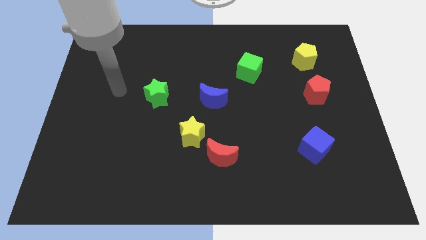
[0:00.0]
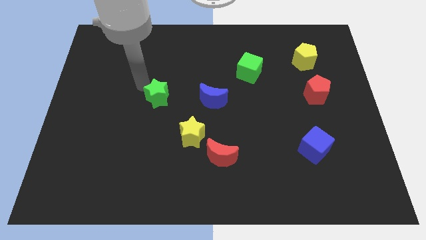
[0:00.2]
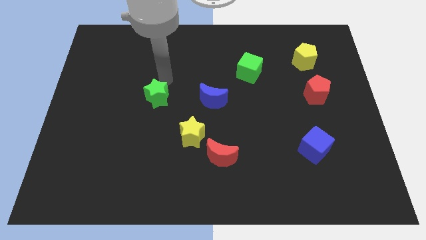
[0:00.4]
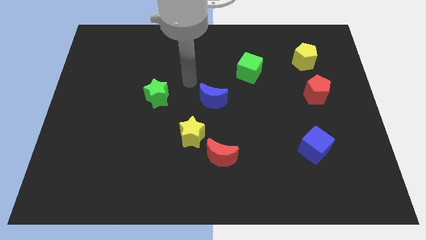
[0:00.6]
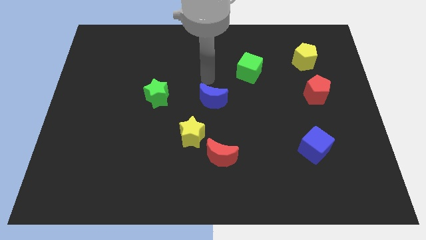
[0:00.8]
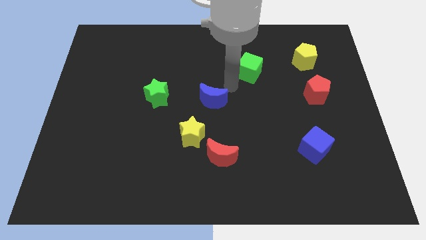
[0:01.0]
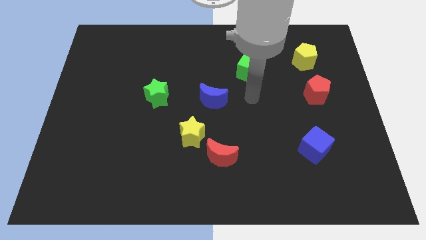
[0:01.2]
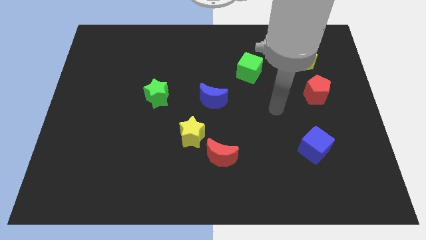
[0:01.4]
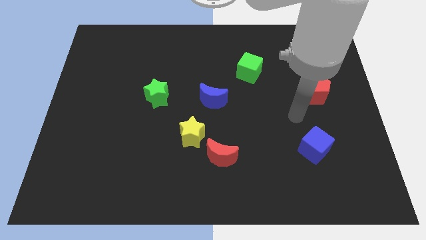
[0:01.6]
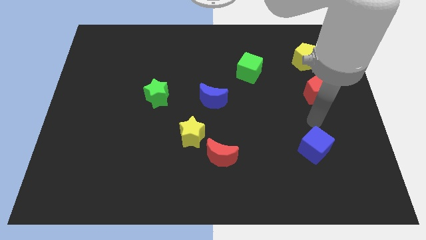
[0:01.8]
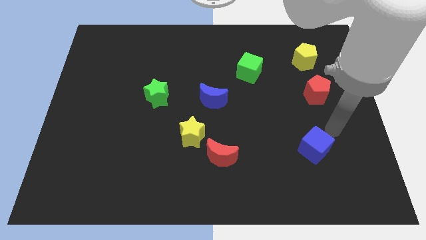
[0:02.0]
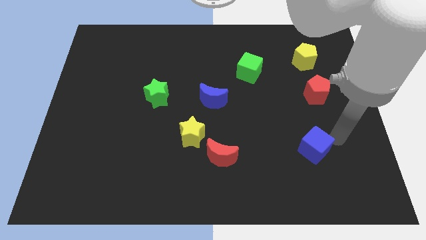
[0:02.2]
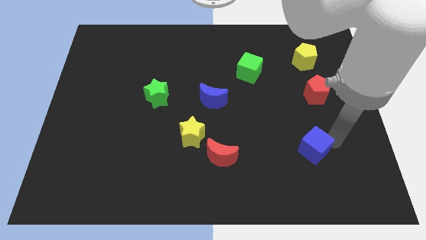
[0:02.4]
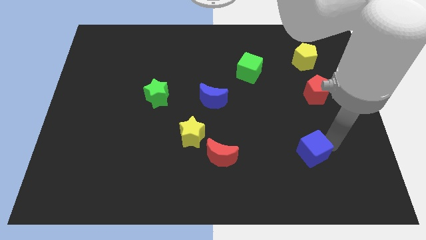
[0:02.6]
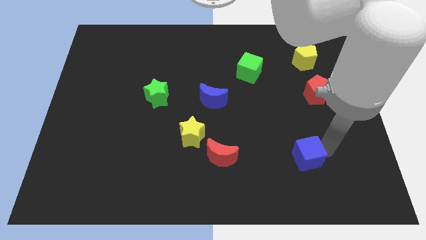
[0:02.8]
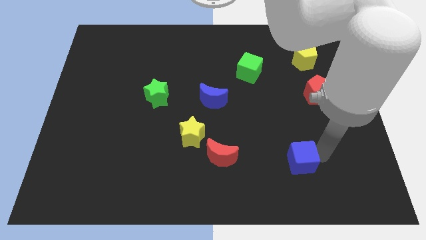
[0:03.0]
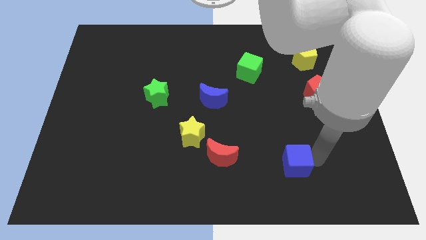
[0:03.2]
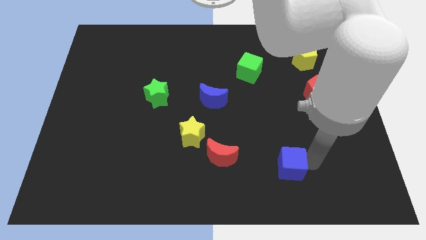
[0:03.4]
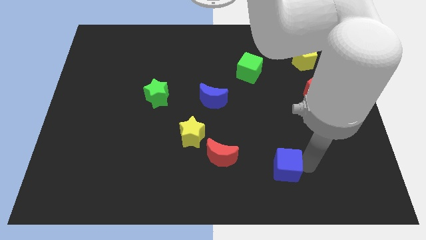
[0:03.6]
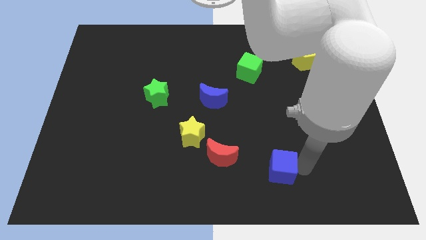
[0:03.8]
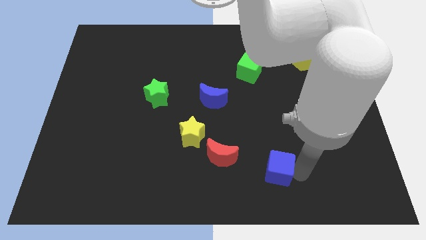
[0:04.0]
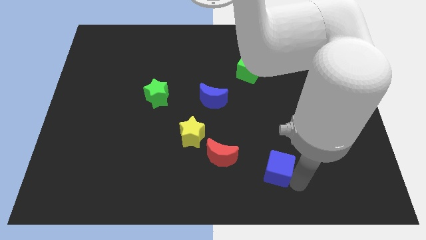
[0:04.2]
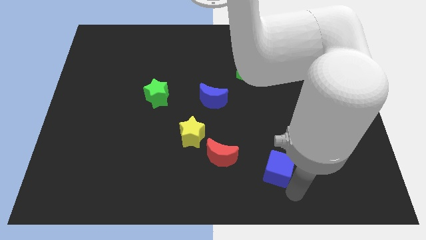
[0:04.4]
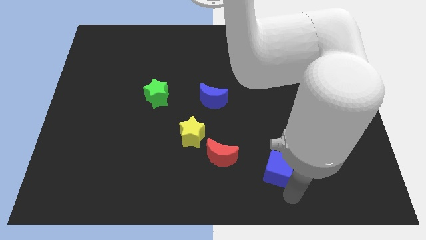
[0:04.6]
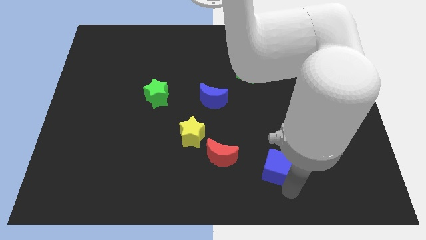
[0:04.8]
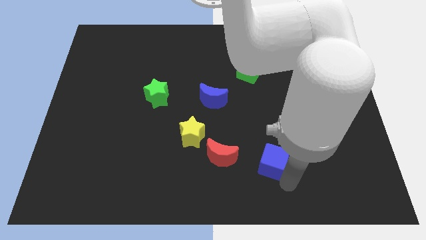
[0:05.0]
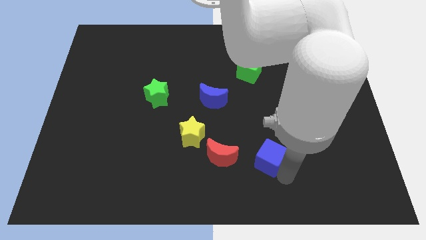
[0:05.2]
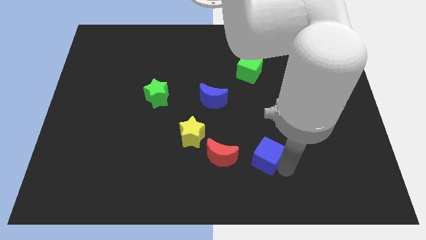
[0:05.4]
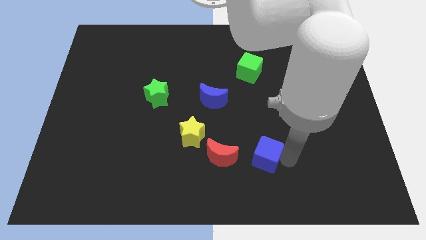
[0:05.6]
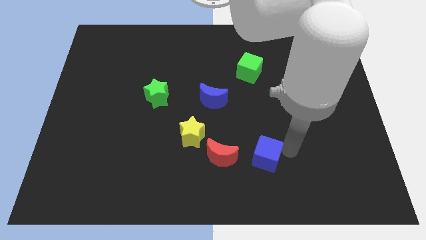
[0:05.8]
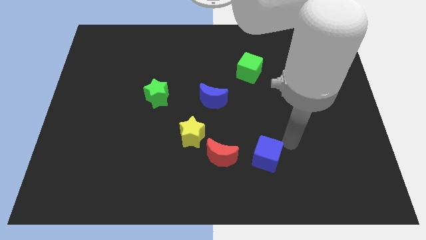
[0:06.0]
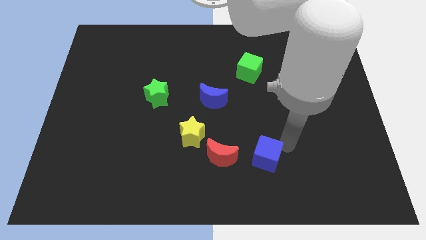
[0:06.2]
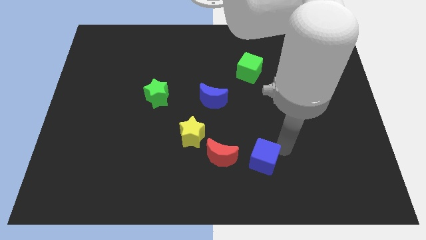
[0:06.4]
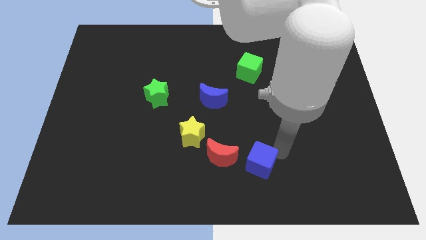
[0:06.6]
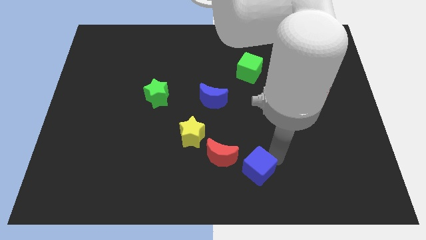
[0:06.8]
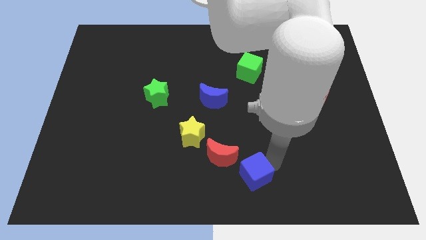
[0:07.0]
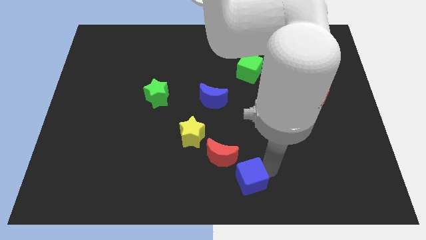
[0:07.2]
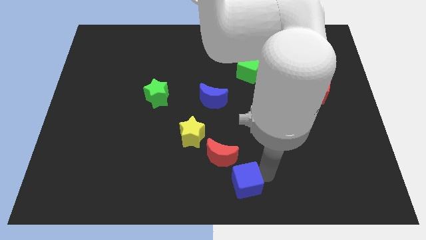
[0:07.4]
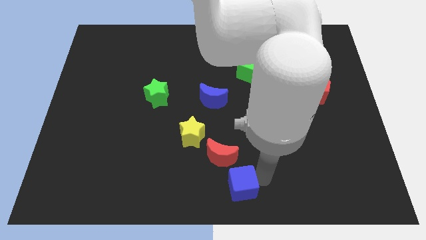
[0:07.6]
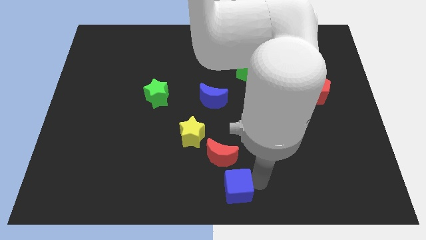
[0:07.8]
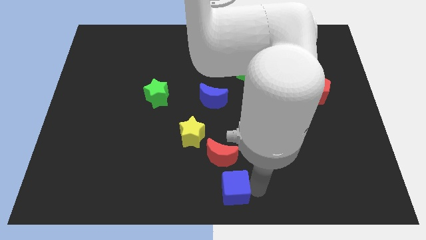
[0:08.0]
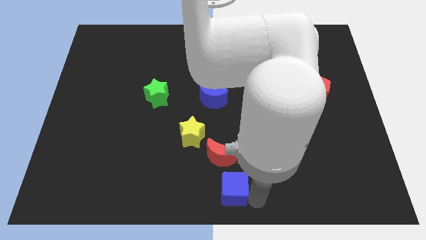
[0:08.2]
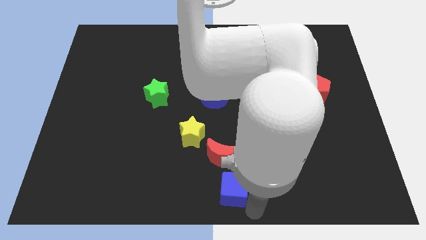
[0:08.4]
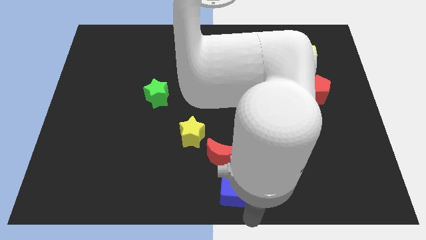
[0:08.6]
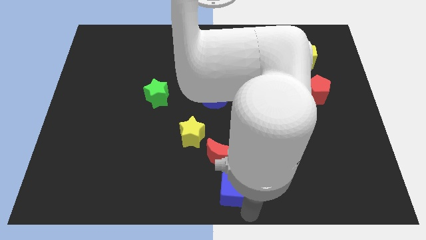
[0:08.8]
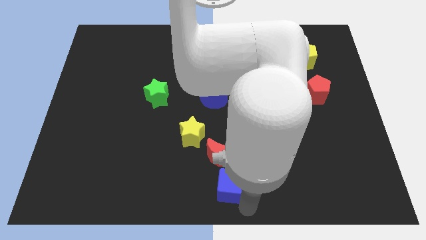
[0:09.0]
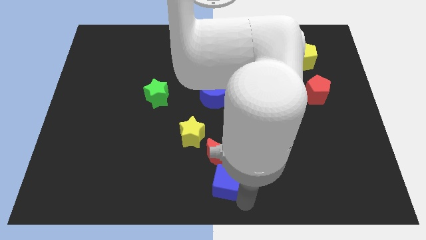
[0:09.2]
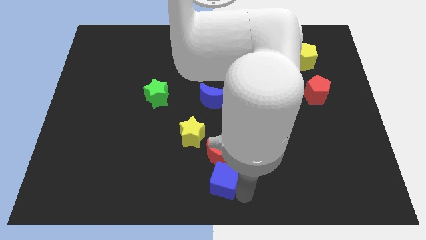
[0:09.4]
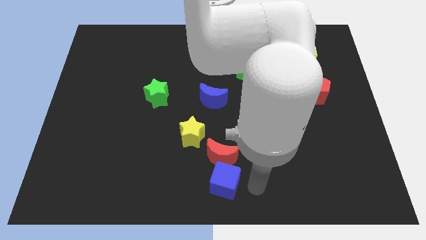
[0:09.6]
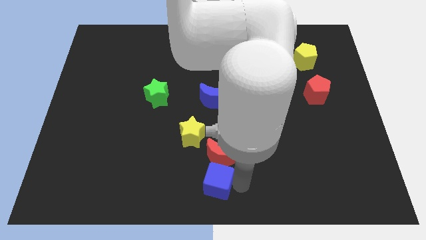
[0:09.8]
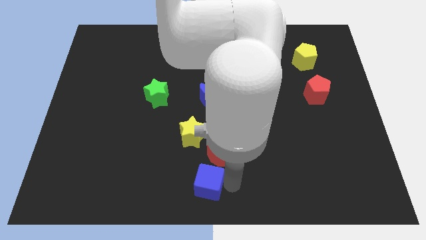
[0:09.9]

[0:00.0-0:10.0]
move the blue cube to the bottom side of the yellow star

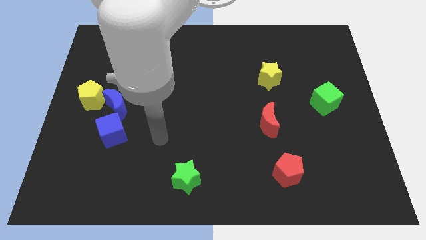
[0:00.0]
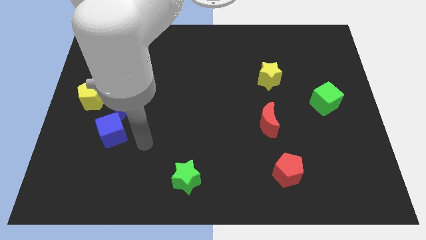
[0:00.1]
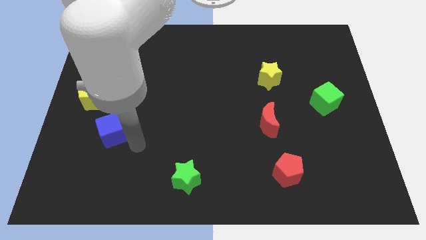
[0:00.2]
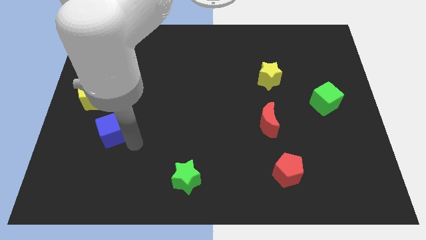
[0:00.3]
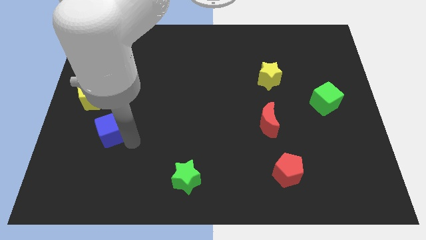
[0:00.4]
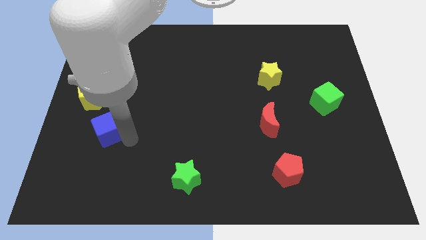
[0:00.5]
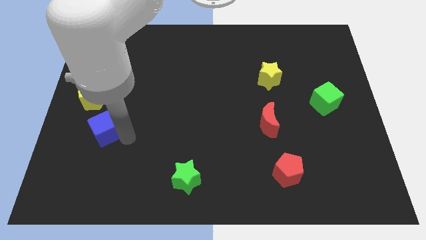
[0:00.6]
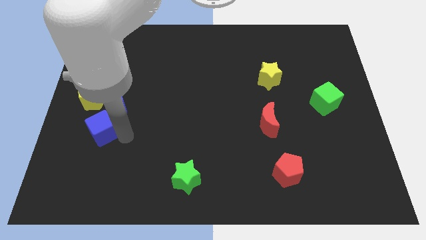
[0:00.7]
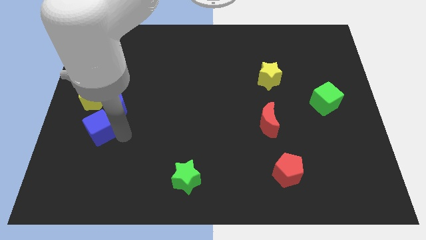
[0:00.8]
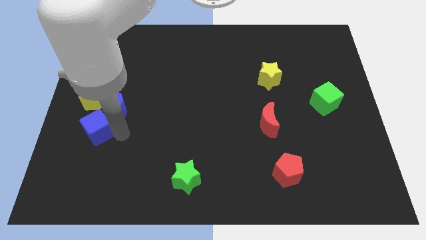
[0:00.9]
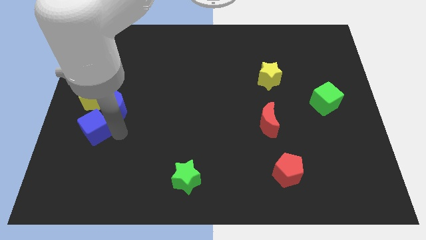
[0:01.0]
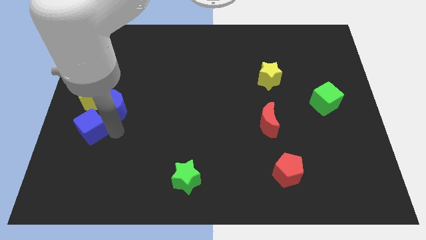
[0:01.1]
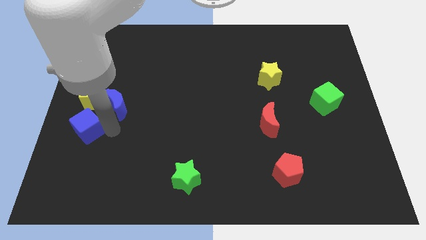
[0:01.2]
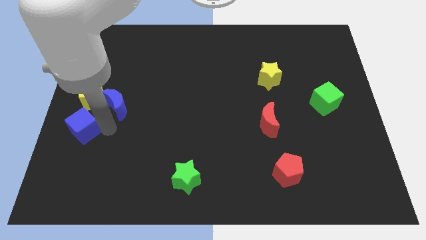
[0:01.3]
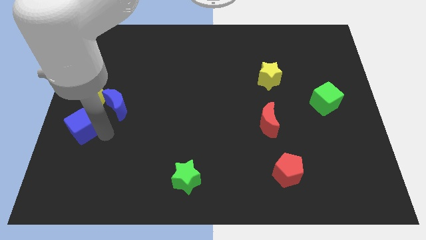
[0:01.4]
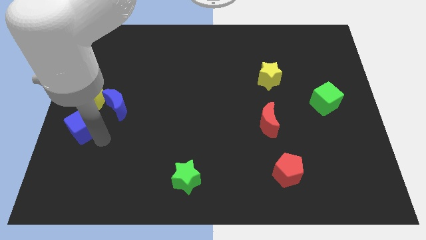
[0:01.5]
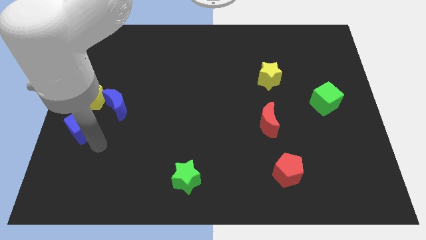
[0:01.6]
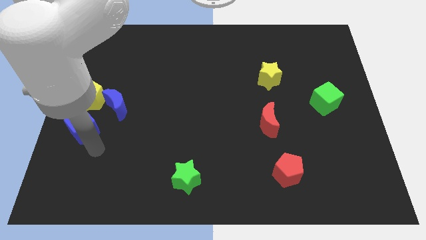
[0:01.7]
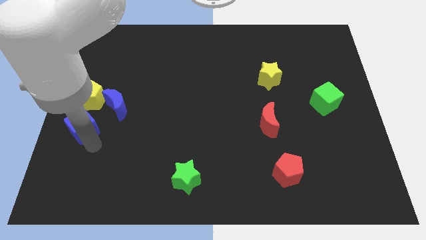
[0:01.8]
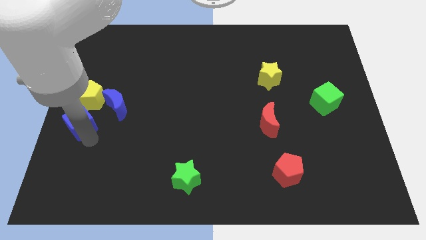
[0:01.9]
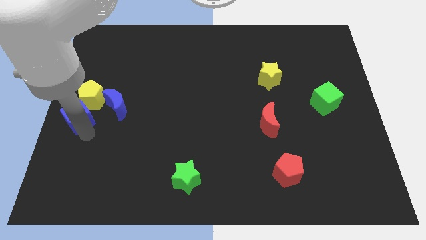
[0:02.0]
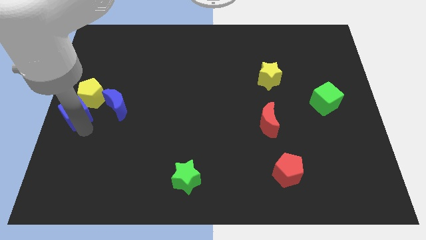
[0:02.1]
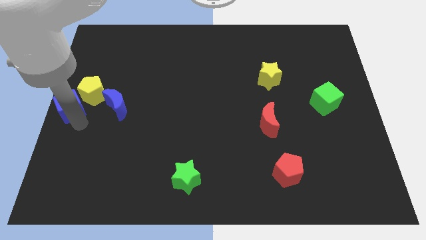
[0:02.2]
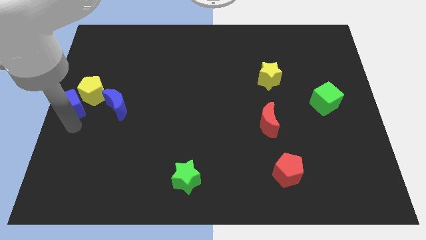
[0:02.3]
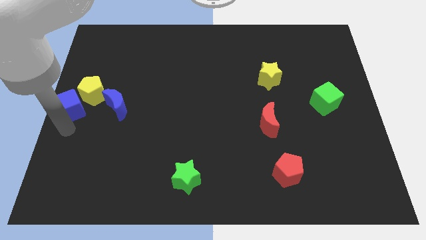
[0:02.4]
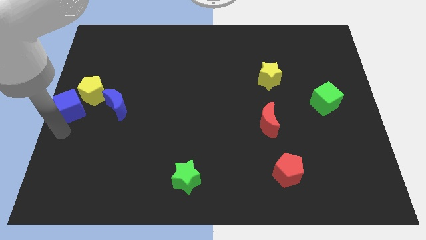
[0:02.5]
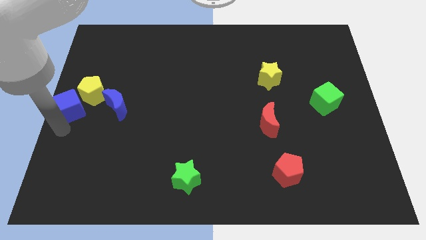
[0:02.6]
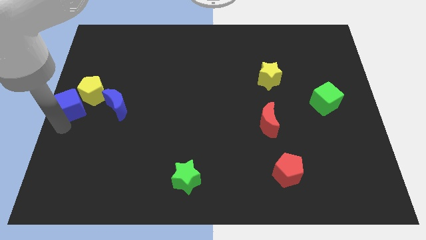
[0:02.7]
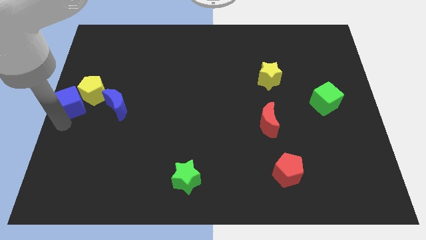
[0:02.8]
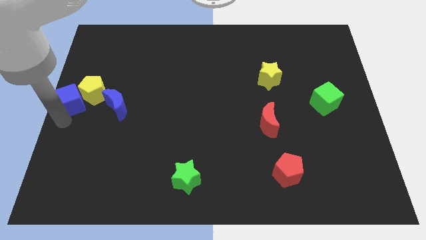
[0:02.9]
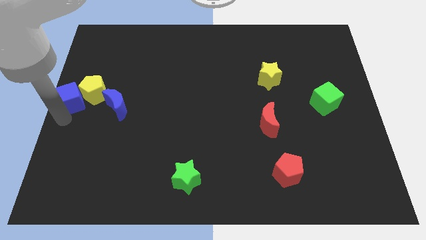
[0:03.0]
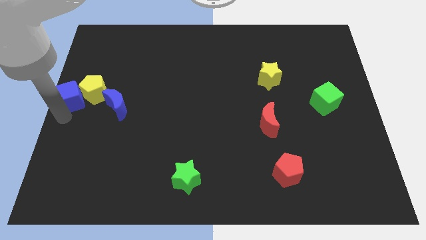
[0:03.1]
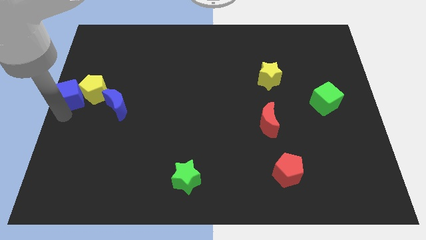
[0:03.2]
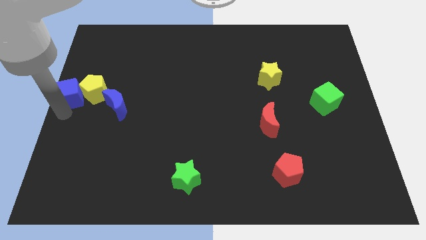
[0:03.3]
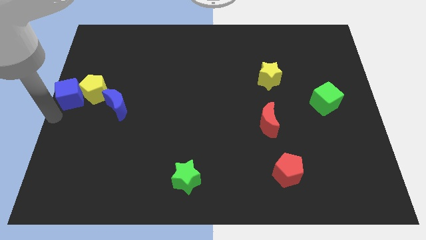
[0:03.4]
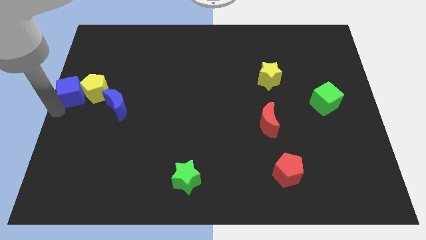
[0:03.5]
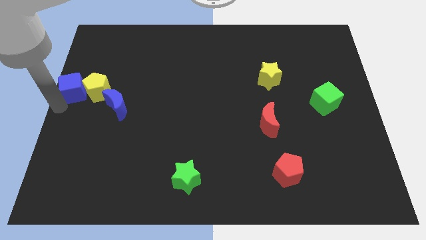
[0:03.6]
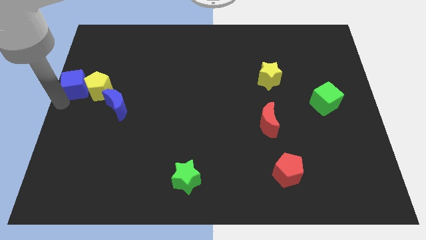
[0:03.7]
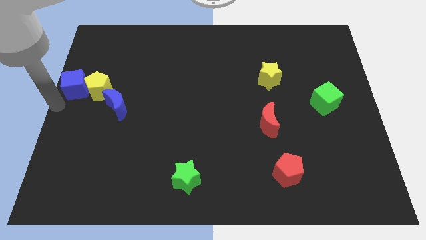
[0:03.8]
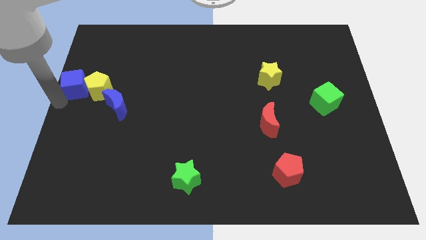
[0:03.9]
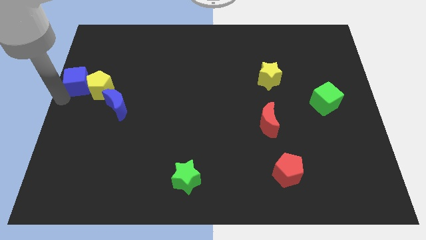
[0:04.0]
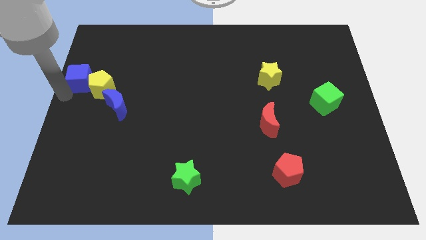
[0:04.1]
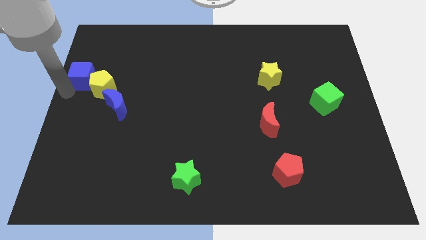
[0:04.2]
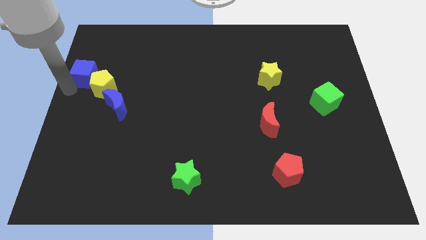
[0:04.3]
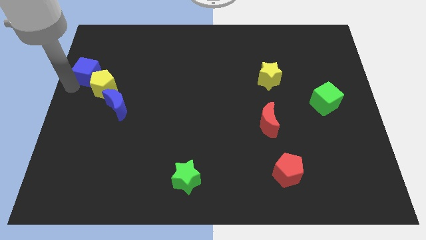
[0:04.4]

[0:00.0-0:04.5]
put the blue cube to the top of the yellow pentagon
